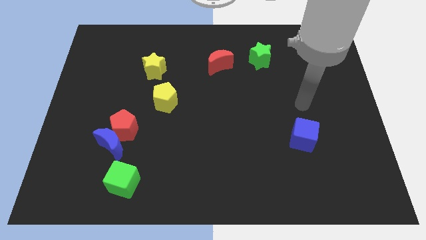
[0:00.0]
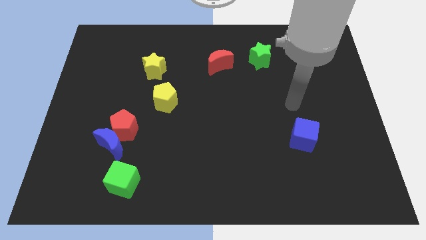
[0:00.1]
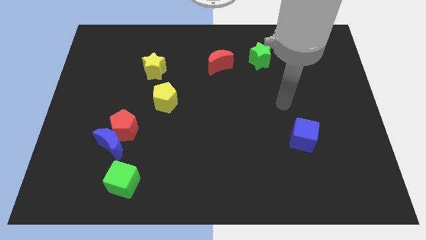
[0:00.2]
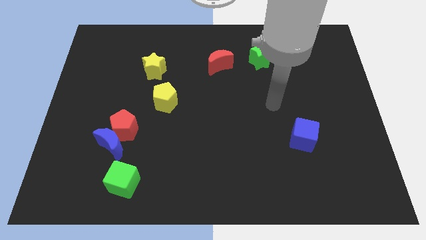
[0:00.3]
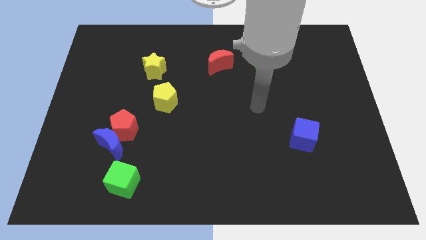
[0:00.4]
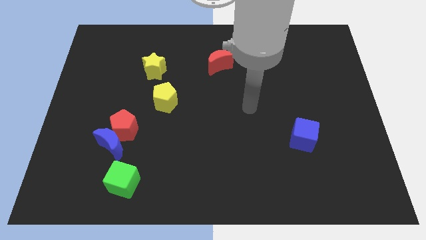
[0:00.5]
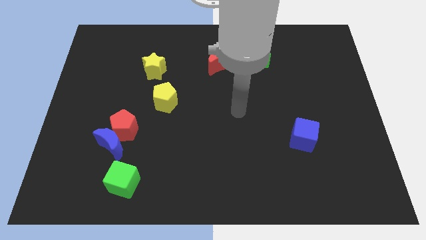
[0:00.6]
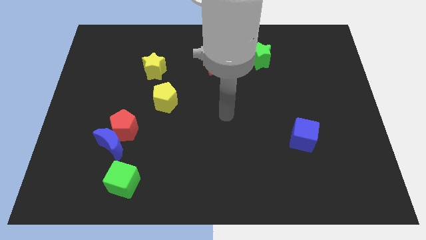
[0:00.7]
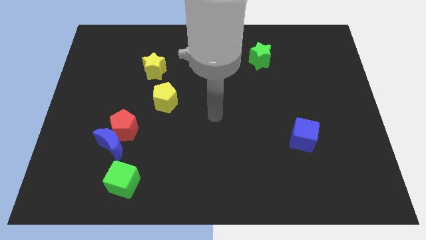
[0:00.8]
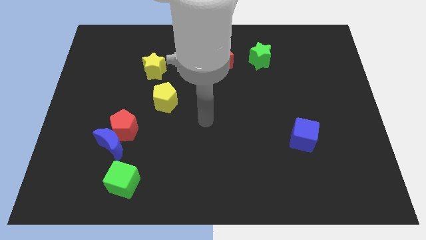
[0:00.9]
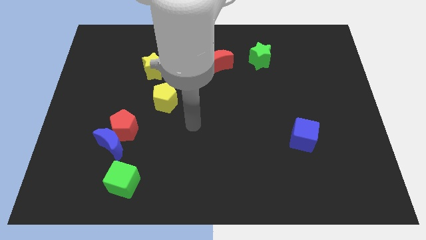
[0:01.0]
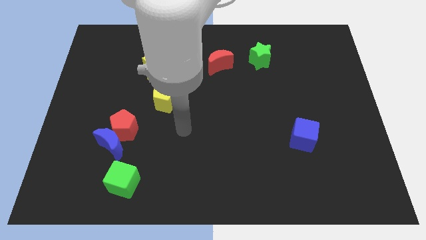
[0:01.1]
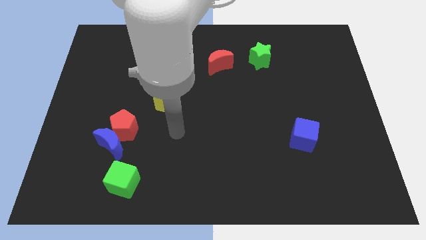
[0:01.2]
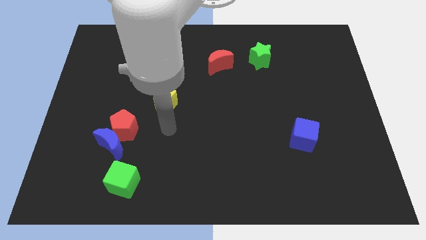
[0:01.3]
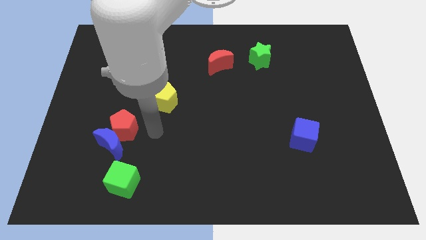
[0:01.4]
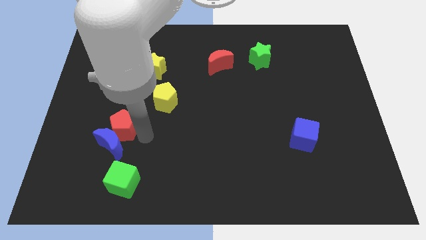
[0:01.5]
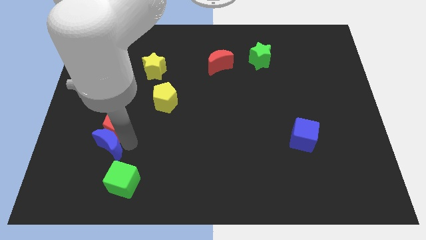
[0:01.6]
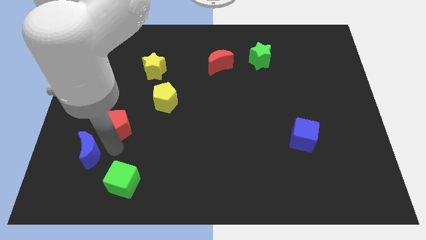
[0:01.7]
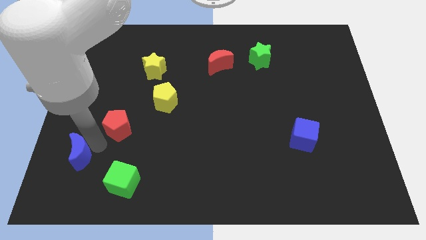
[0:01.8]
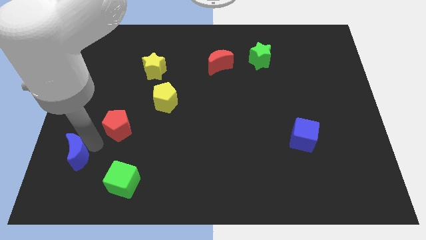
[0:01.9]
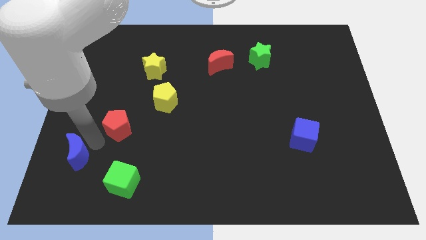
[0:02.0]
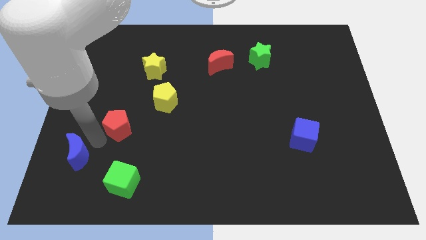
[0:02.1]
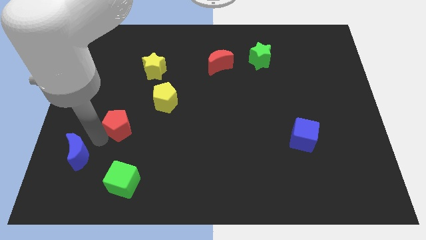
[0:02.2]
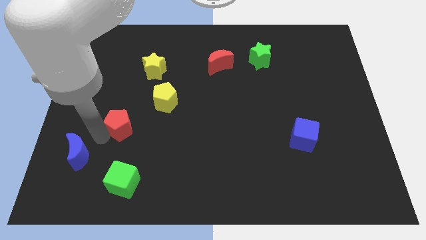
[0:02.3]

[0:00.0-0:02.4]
move the red pentagon away from the blue moon

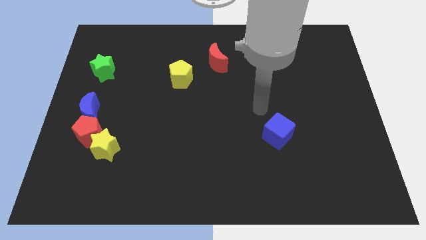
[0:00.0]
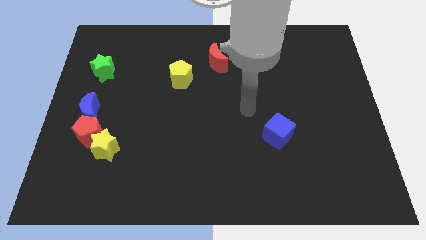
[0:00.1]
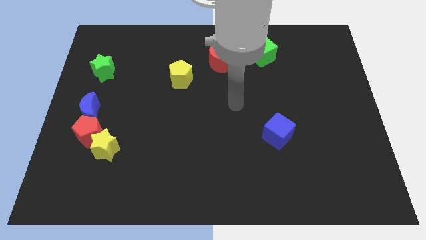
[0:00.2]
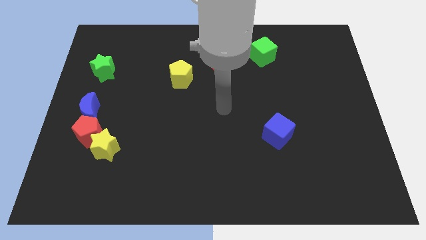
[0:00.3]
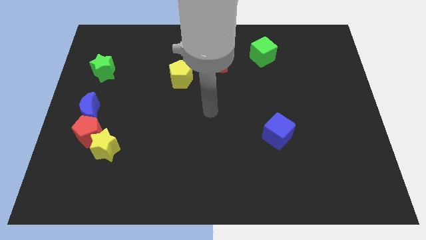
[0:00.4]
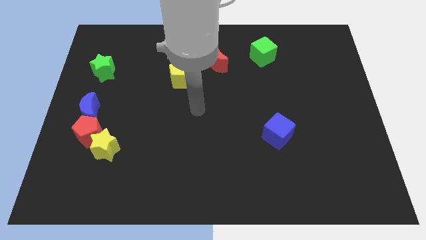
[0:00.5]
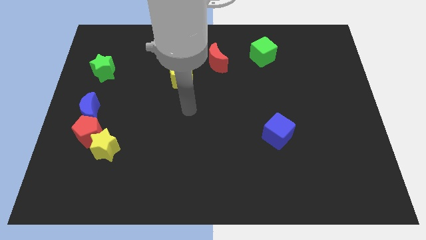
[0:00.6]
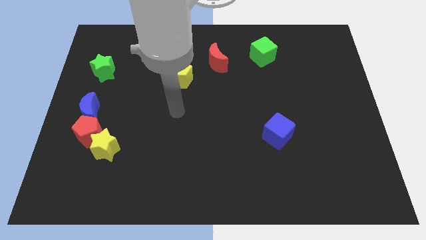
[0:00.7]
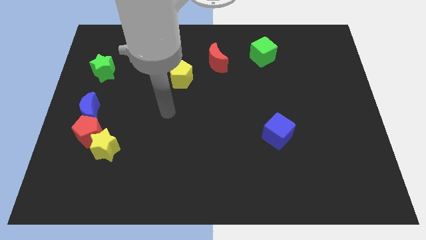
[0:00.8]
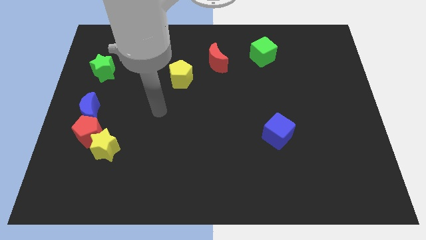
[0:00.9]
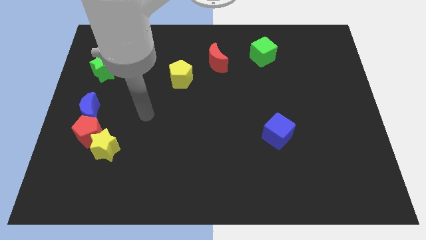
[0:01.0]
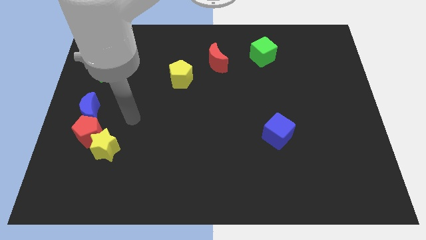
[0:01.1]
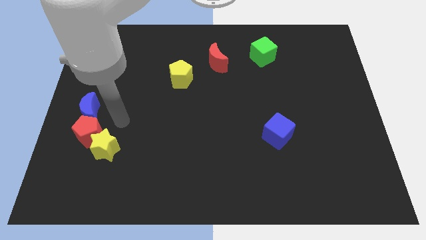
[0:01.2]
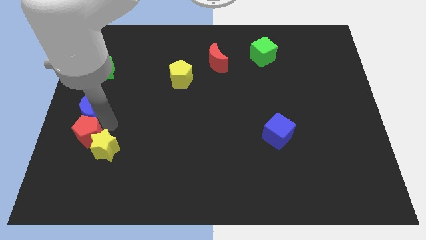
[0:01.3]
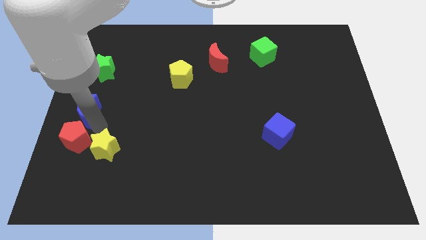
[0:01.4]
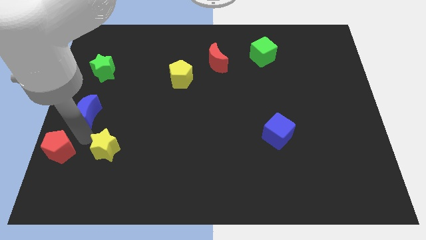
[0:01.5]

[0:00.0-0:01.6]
move the yellow star away from the red pentagon

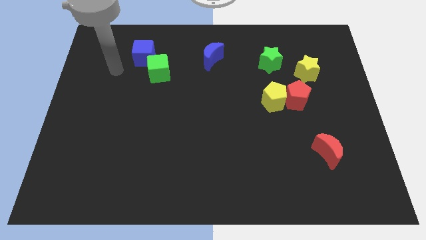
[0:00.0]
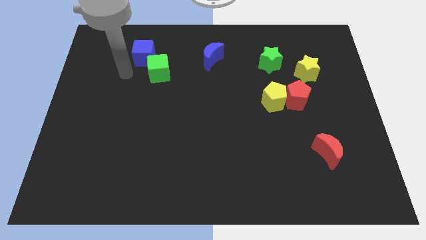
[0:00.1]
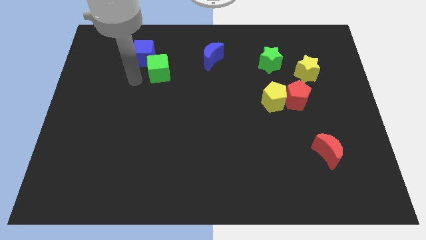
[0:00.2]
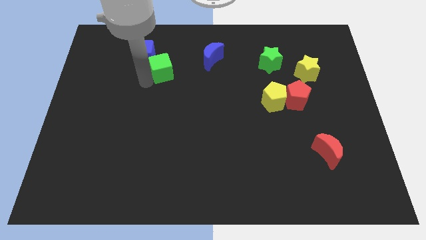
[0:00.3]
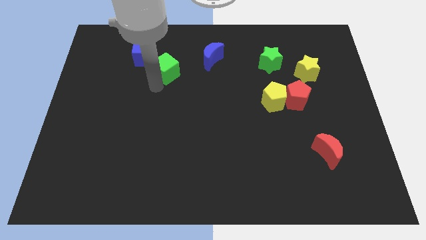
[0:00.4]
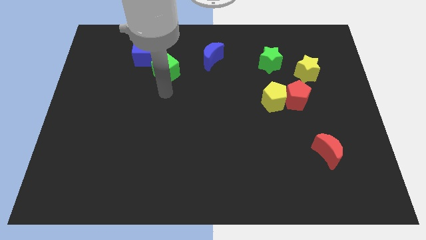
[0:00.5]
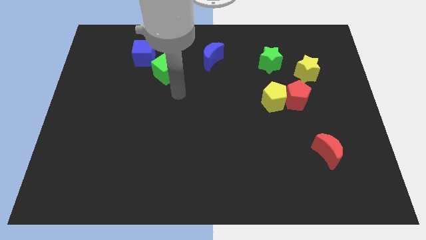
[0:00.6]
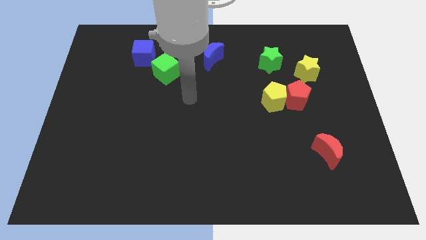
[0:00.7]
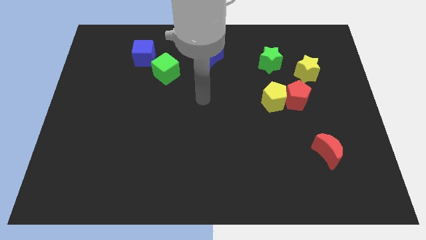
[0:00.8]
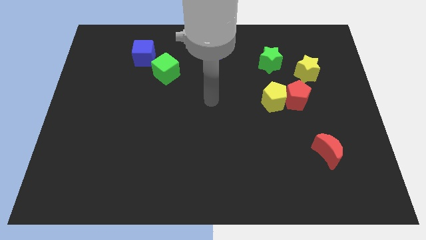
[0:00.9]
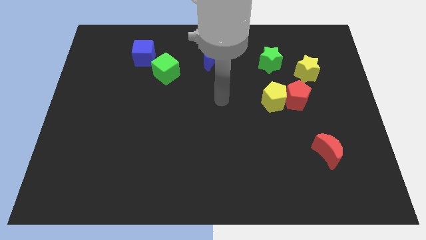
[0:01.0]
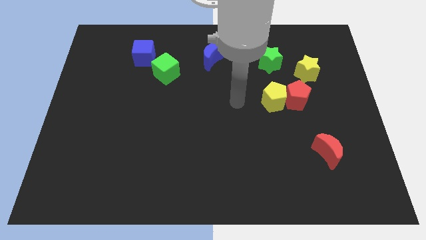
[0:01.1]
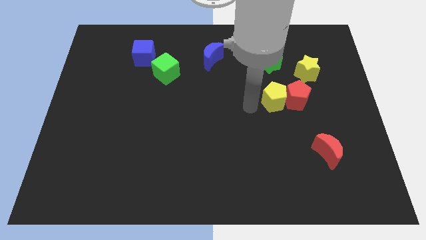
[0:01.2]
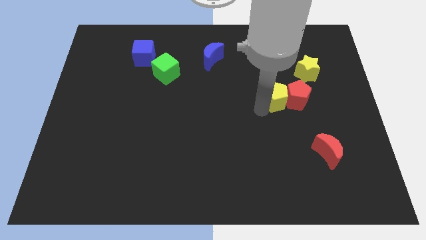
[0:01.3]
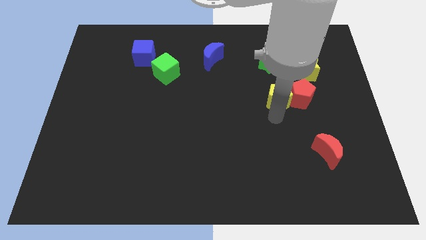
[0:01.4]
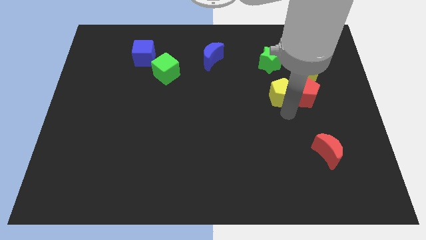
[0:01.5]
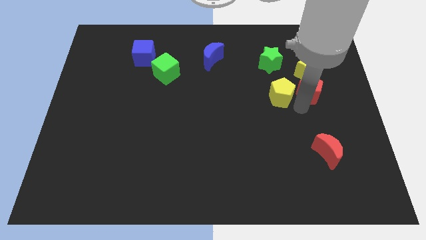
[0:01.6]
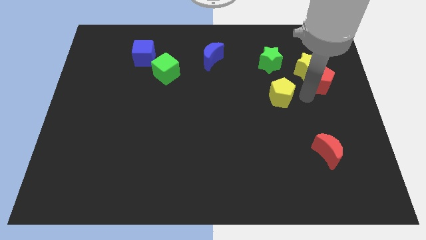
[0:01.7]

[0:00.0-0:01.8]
pull the yellow pentagon apart from the red pentagon

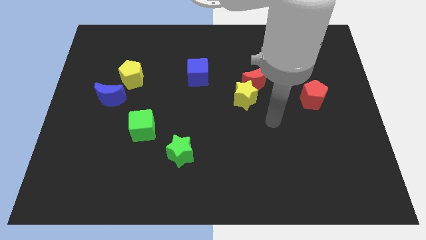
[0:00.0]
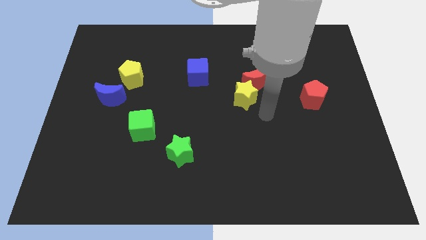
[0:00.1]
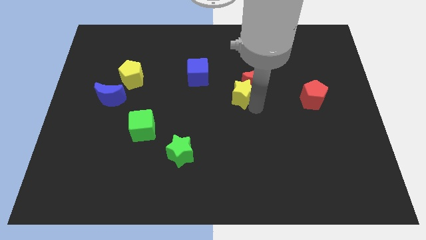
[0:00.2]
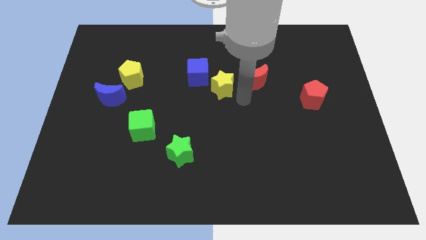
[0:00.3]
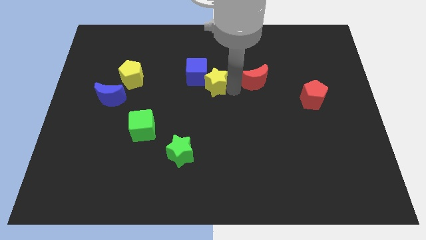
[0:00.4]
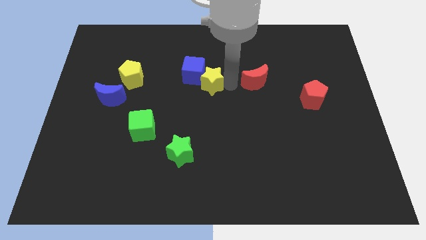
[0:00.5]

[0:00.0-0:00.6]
separate the red moon from the yellow star

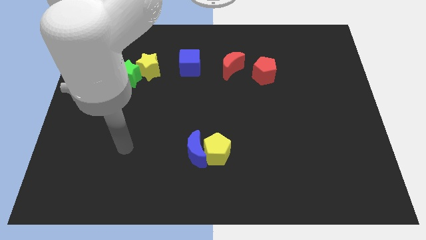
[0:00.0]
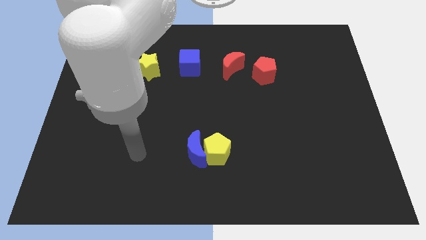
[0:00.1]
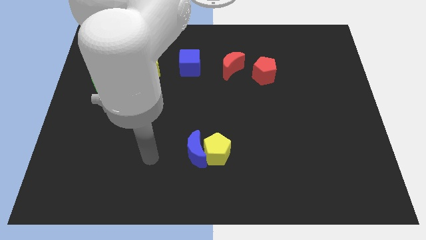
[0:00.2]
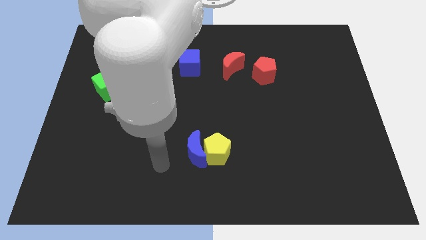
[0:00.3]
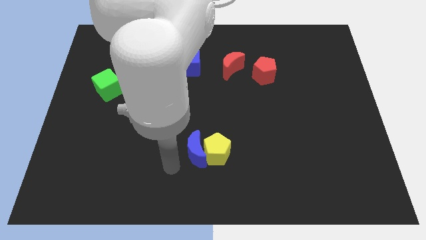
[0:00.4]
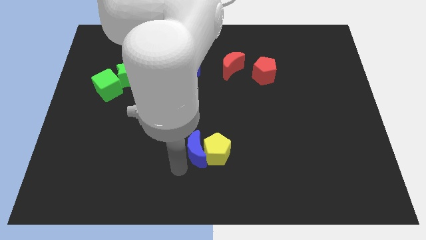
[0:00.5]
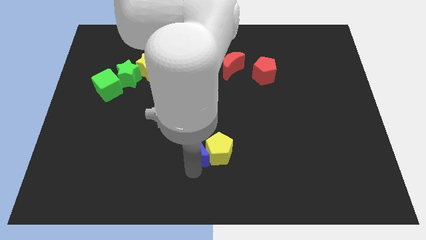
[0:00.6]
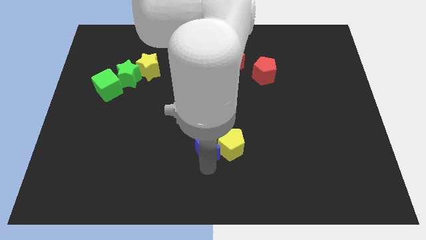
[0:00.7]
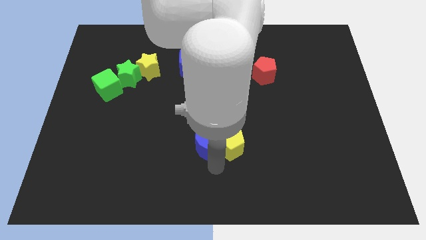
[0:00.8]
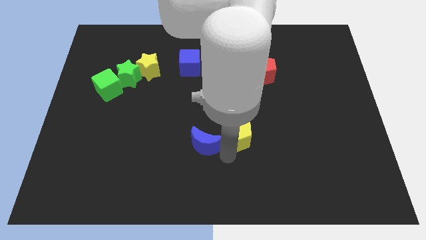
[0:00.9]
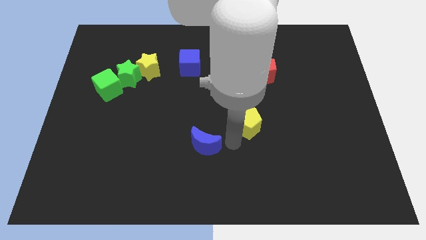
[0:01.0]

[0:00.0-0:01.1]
move the blue moon away from the yellow pentagon

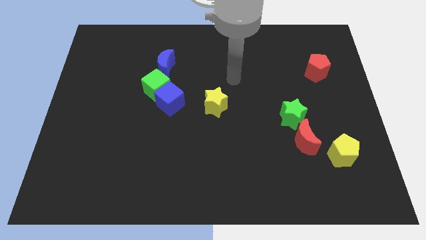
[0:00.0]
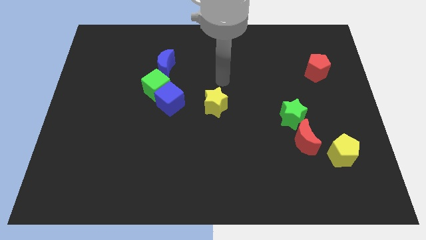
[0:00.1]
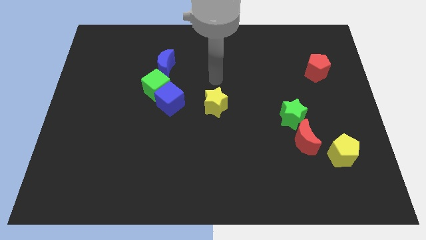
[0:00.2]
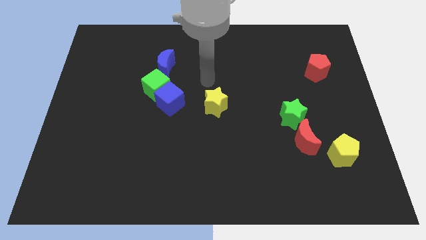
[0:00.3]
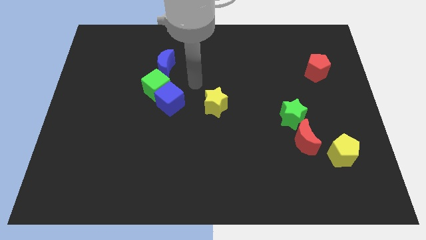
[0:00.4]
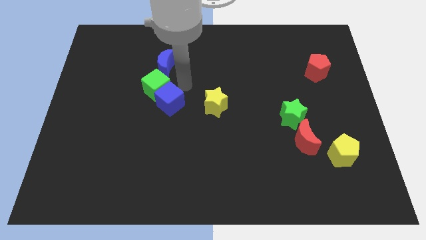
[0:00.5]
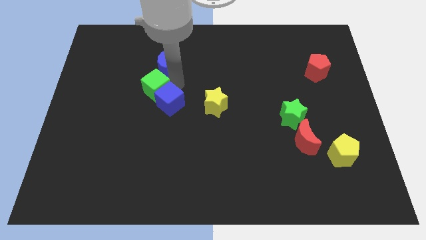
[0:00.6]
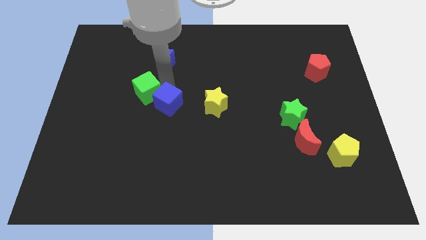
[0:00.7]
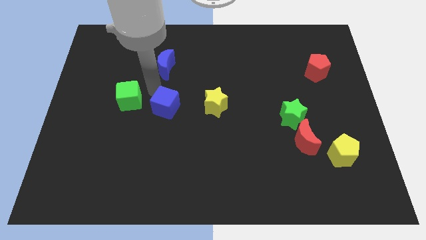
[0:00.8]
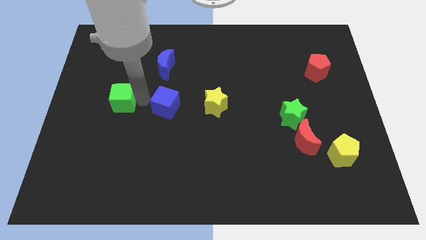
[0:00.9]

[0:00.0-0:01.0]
pull the blue cube apart from the green cube

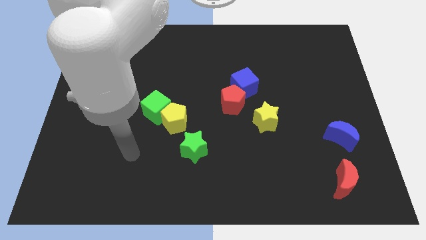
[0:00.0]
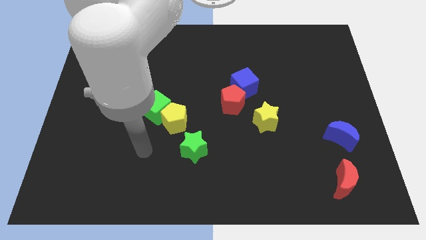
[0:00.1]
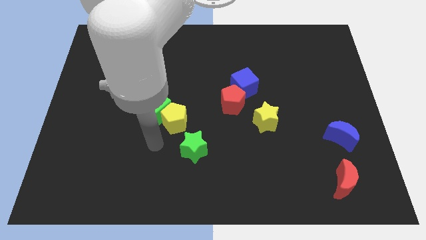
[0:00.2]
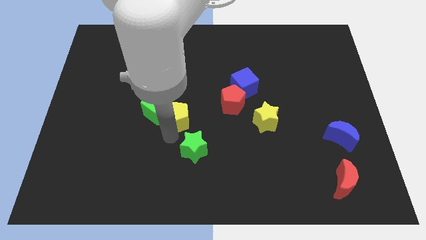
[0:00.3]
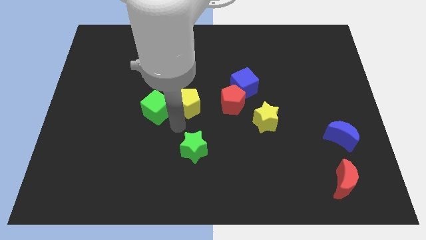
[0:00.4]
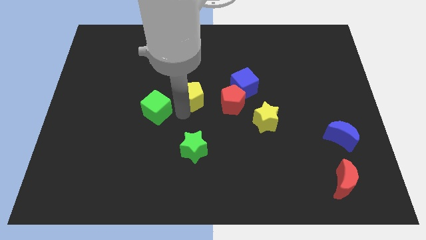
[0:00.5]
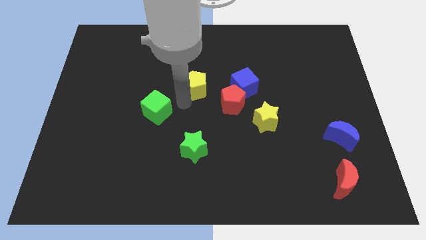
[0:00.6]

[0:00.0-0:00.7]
separate the green cube from the yellow pentagon

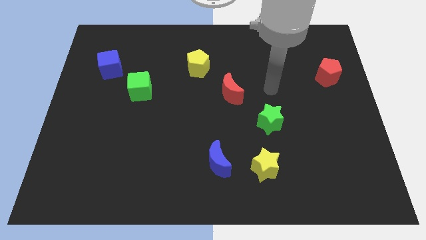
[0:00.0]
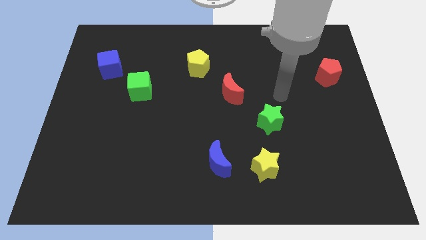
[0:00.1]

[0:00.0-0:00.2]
move the blue moon away from the yellow star
